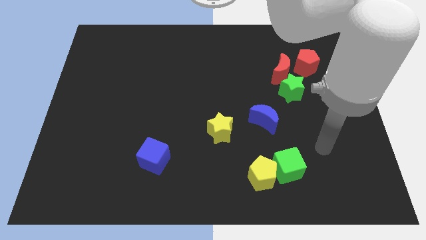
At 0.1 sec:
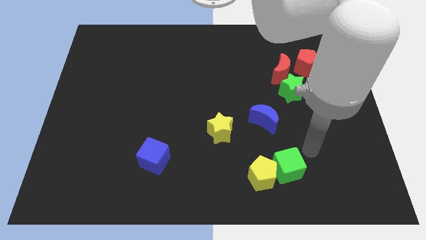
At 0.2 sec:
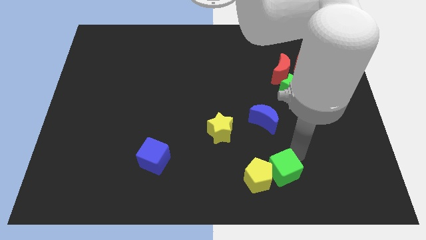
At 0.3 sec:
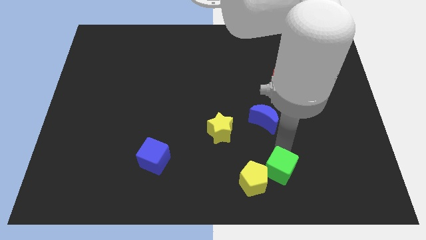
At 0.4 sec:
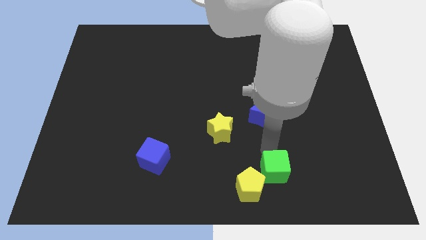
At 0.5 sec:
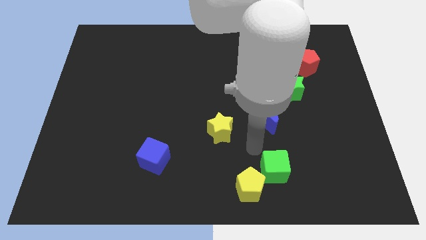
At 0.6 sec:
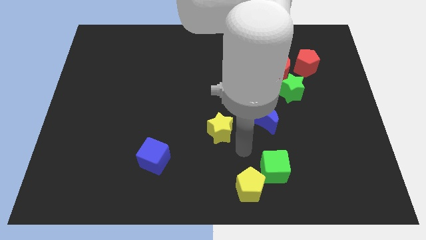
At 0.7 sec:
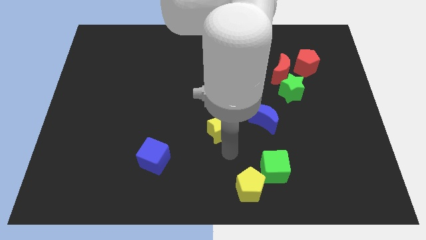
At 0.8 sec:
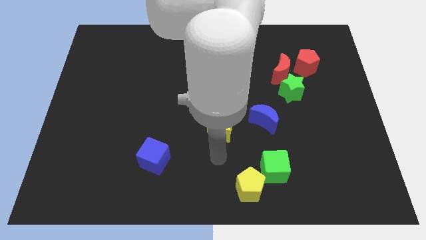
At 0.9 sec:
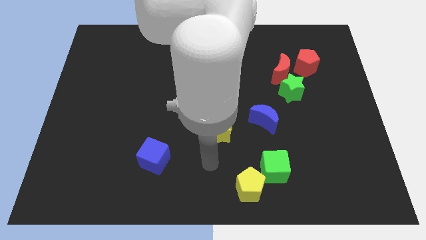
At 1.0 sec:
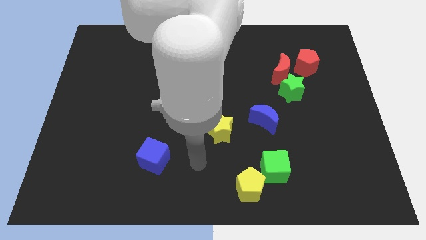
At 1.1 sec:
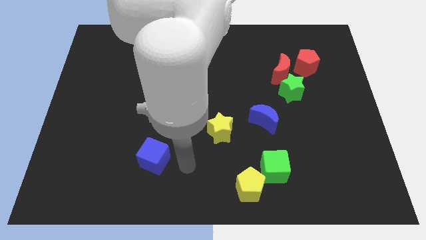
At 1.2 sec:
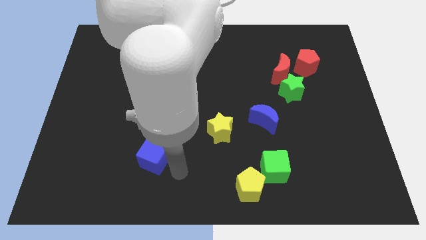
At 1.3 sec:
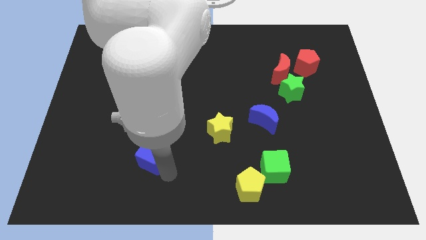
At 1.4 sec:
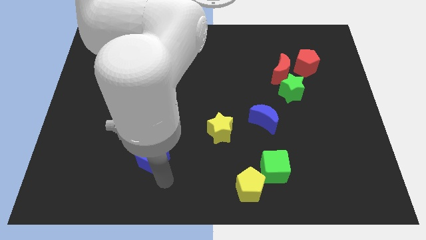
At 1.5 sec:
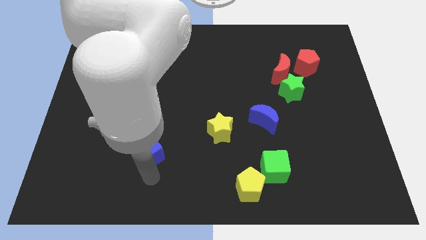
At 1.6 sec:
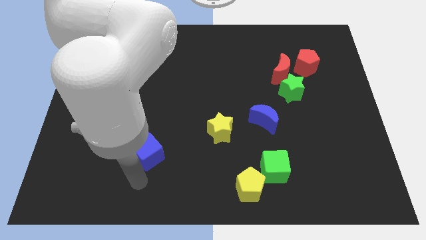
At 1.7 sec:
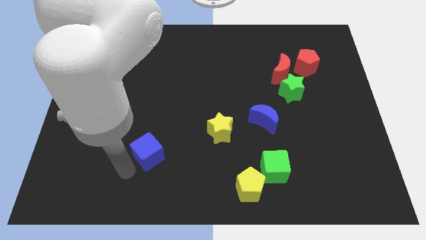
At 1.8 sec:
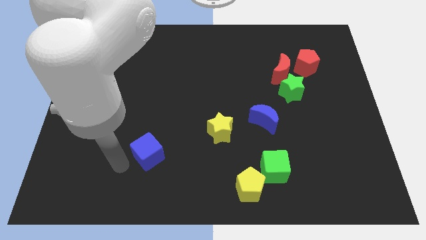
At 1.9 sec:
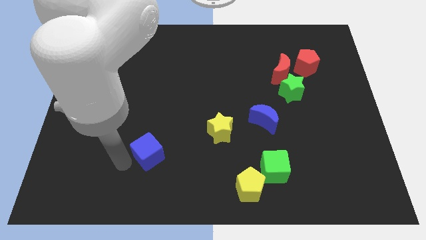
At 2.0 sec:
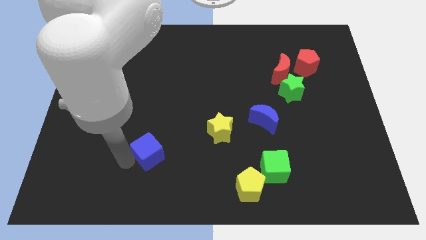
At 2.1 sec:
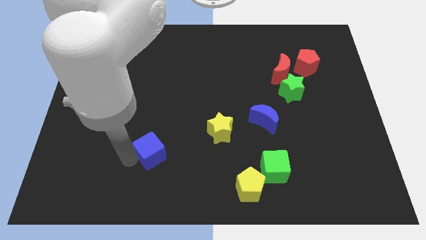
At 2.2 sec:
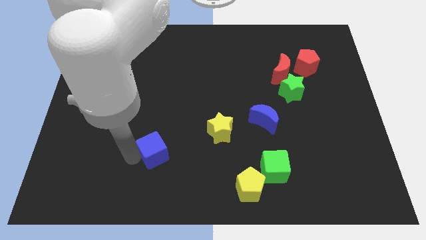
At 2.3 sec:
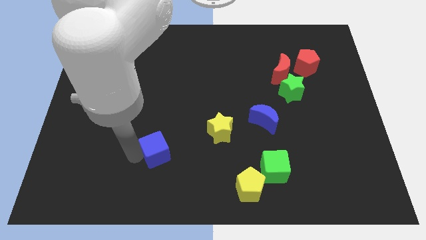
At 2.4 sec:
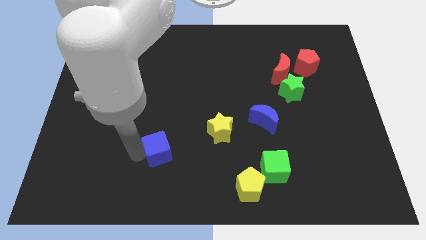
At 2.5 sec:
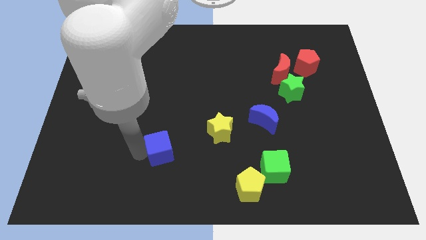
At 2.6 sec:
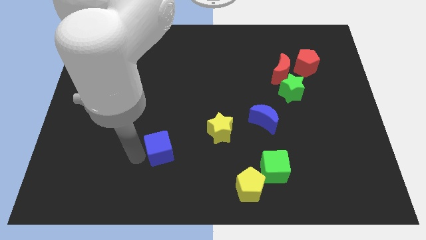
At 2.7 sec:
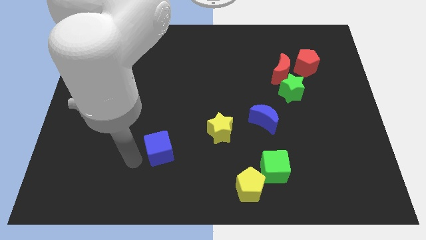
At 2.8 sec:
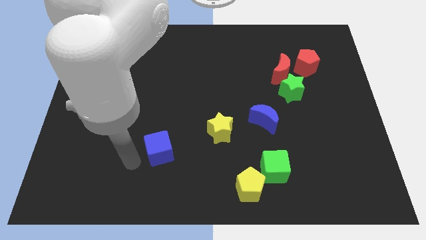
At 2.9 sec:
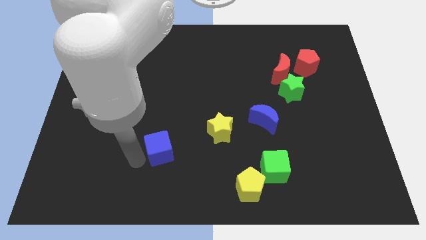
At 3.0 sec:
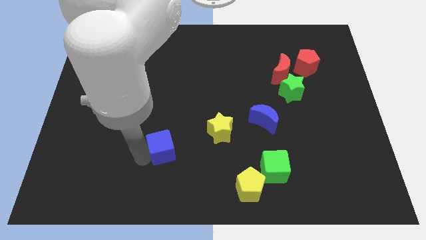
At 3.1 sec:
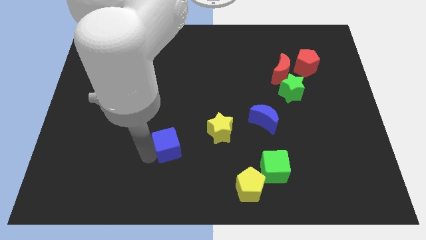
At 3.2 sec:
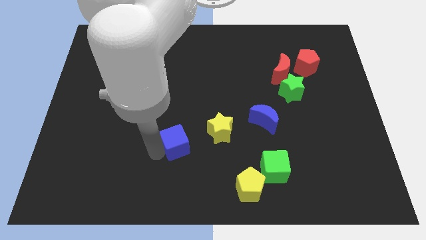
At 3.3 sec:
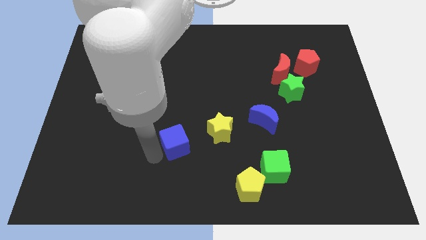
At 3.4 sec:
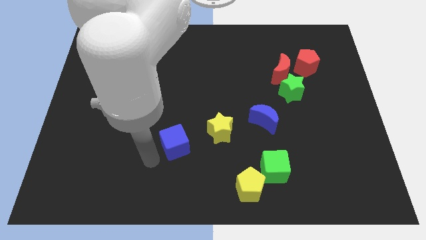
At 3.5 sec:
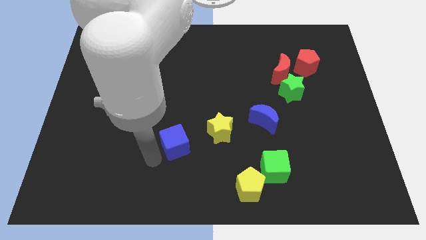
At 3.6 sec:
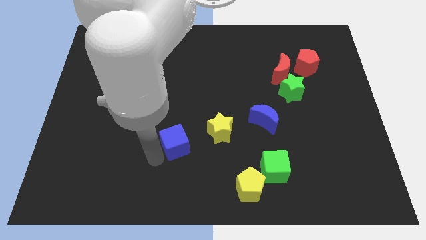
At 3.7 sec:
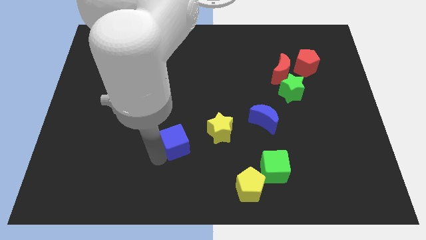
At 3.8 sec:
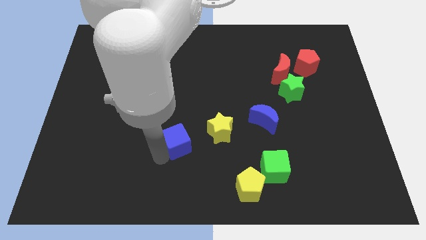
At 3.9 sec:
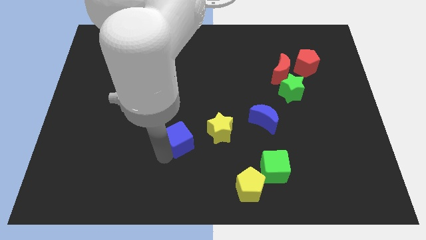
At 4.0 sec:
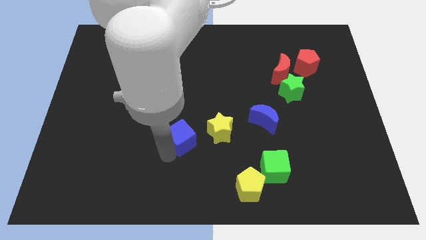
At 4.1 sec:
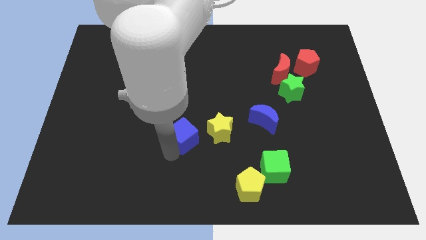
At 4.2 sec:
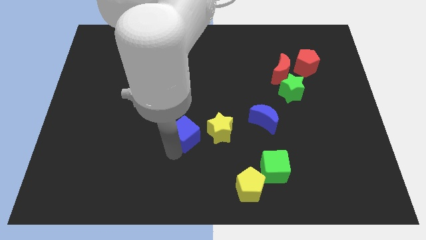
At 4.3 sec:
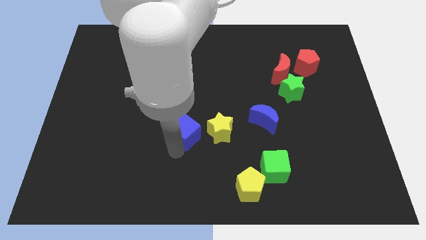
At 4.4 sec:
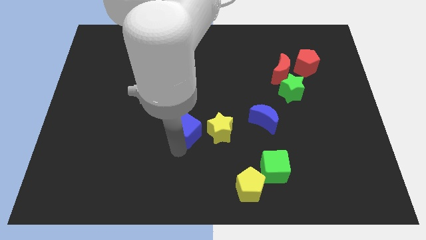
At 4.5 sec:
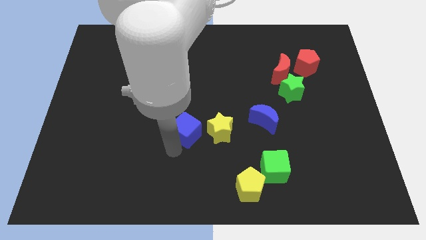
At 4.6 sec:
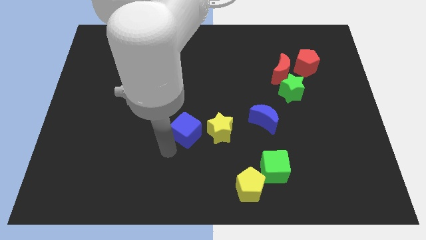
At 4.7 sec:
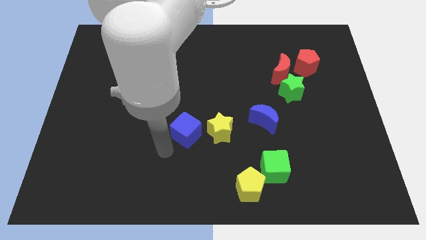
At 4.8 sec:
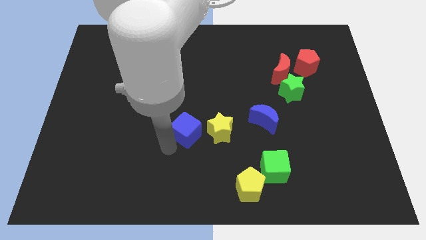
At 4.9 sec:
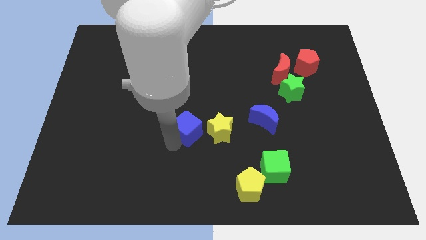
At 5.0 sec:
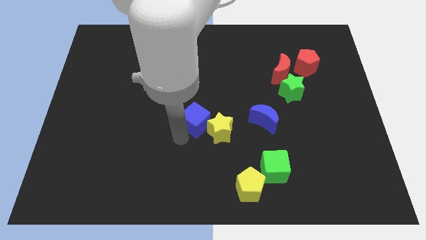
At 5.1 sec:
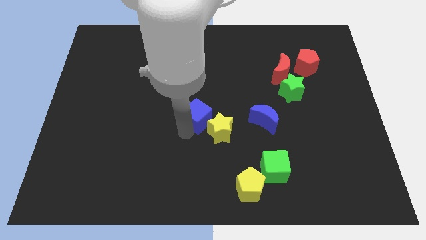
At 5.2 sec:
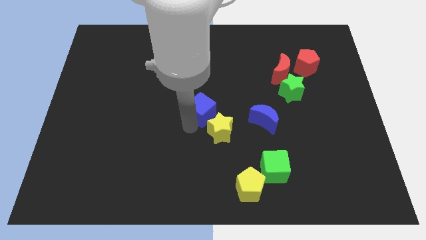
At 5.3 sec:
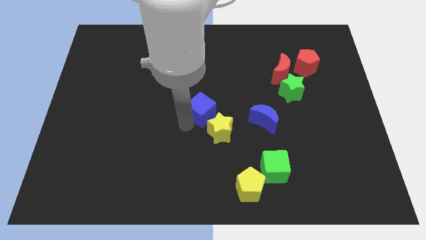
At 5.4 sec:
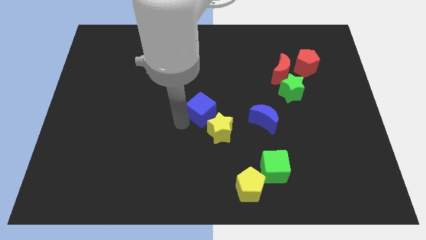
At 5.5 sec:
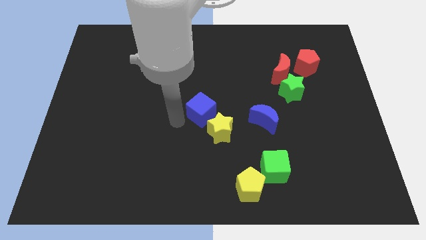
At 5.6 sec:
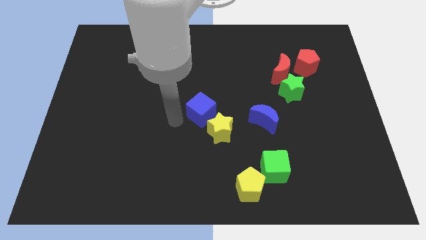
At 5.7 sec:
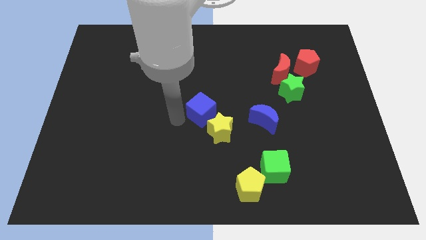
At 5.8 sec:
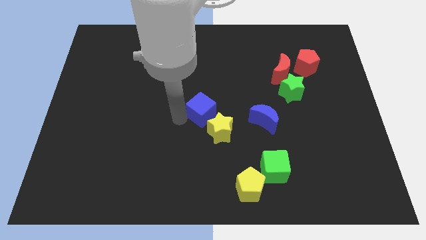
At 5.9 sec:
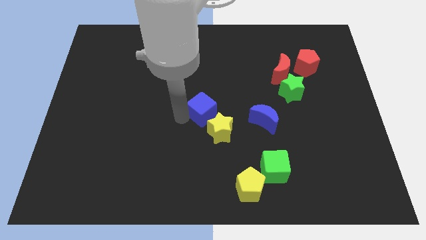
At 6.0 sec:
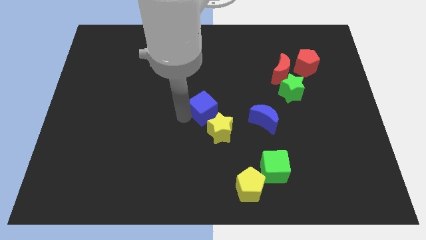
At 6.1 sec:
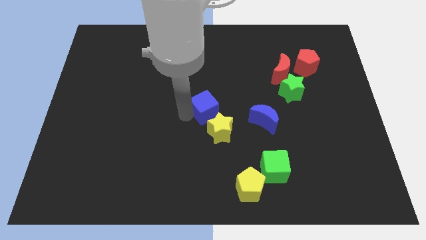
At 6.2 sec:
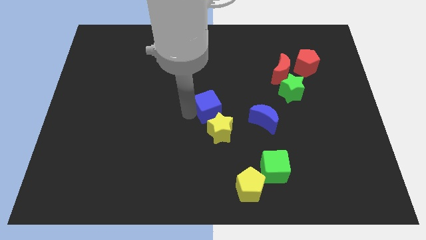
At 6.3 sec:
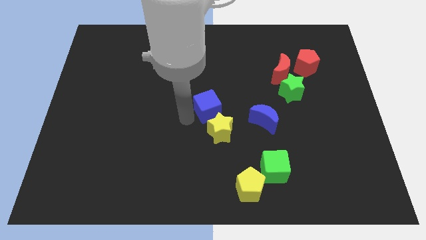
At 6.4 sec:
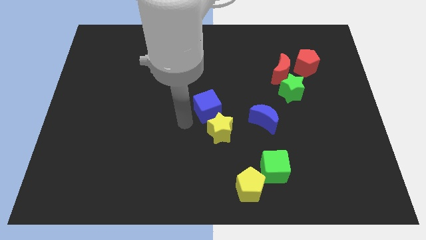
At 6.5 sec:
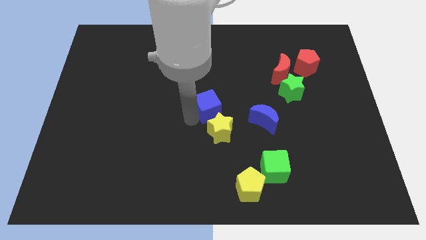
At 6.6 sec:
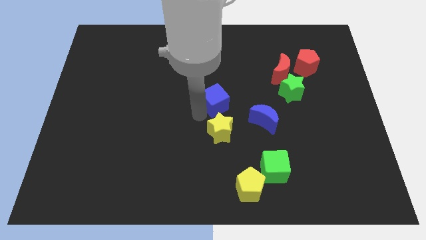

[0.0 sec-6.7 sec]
push the blue cube up and to the right

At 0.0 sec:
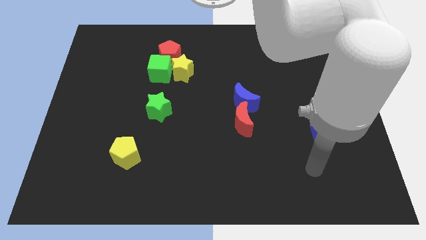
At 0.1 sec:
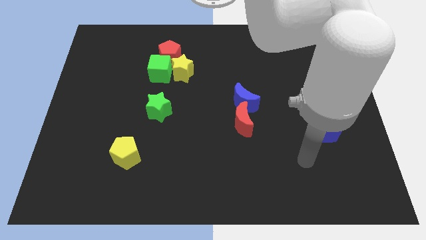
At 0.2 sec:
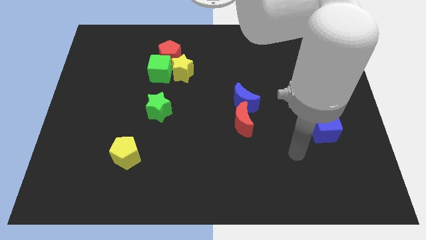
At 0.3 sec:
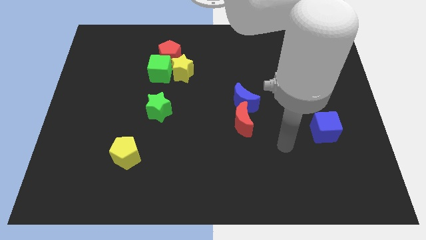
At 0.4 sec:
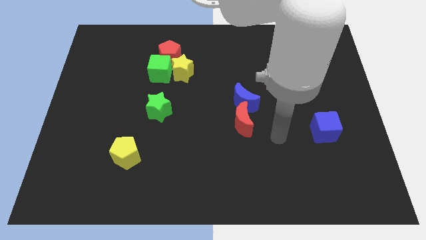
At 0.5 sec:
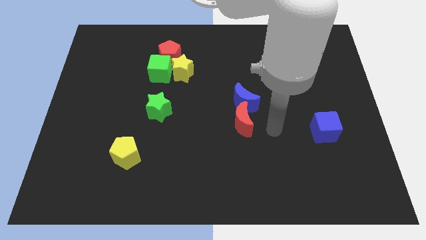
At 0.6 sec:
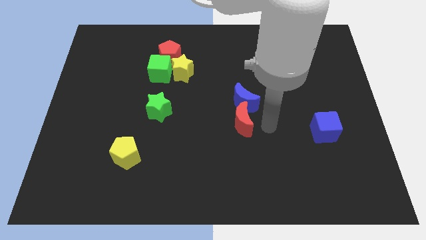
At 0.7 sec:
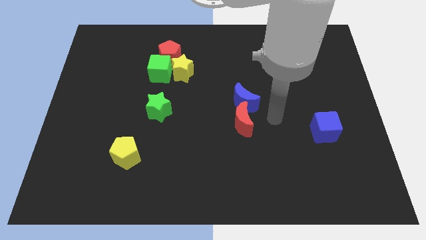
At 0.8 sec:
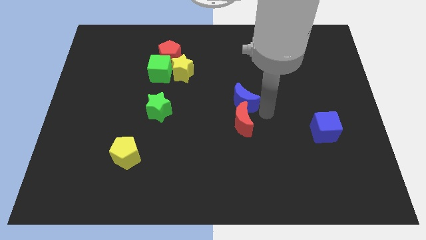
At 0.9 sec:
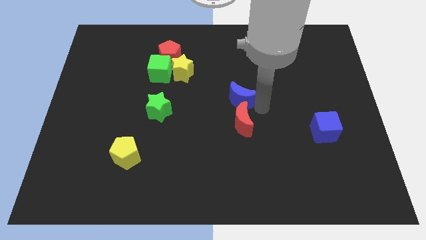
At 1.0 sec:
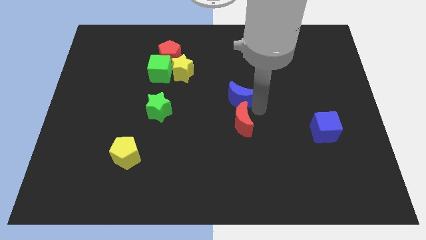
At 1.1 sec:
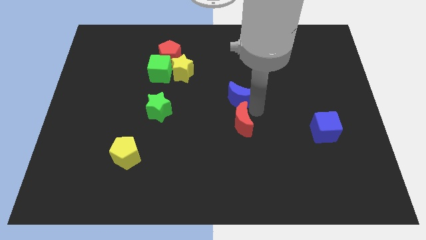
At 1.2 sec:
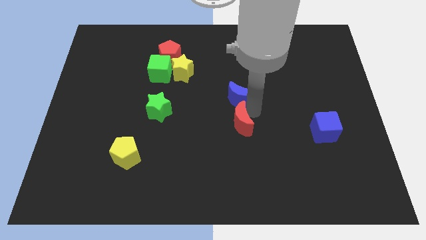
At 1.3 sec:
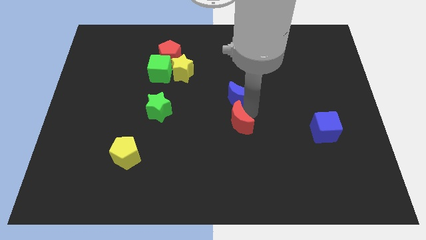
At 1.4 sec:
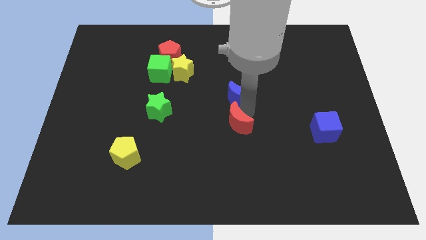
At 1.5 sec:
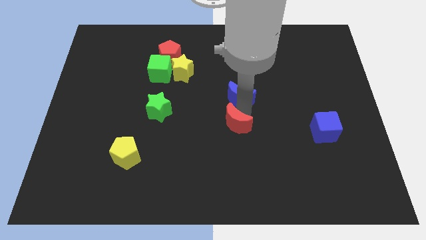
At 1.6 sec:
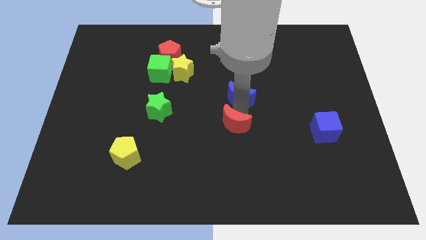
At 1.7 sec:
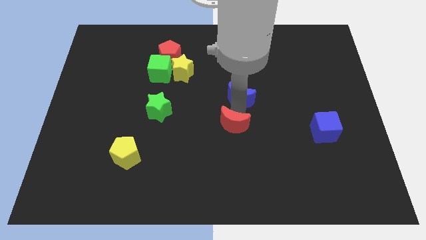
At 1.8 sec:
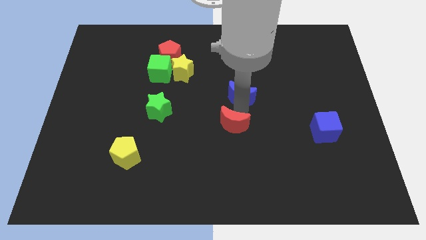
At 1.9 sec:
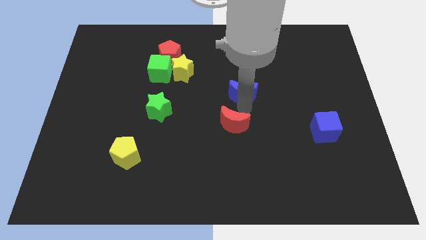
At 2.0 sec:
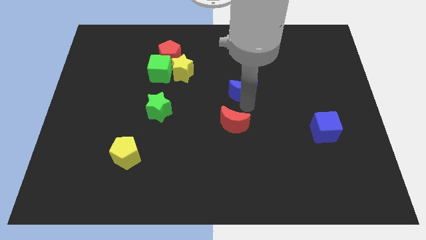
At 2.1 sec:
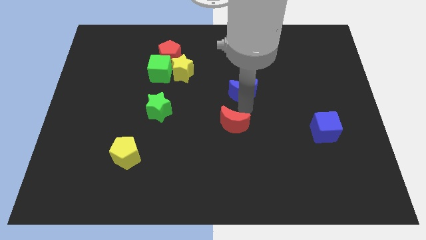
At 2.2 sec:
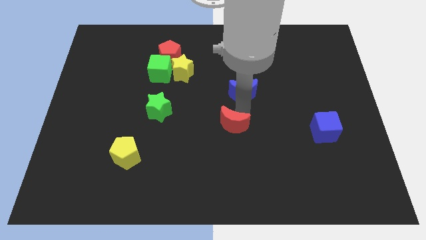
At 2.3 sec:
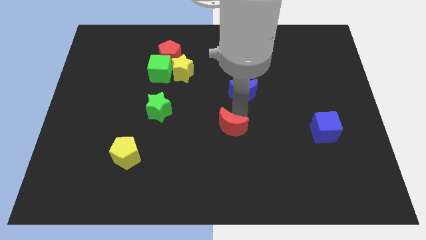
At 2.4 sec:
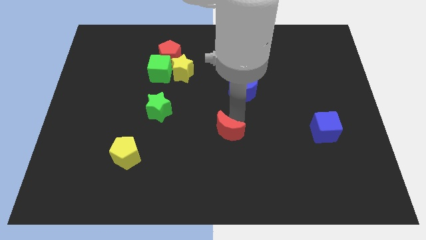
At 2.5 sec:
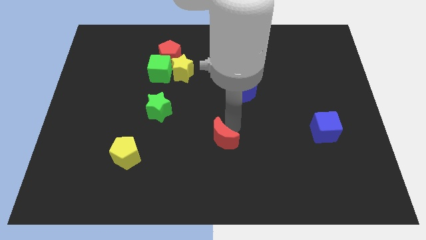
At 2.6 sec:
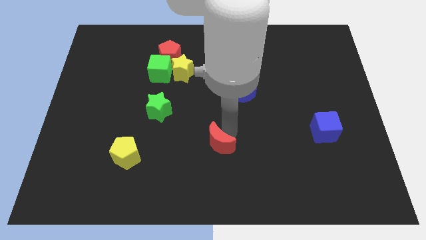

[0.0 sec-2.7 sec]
push the red moon down and then left a little bit
